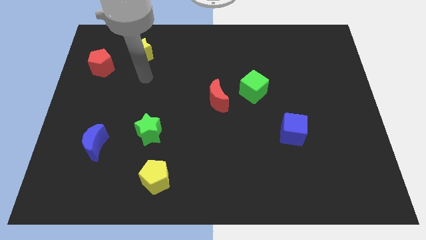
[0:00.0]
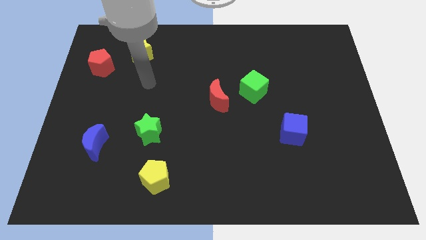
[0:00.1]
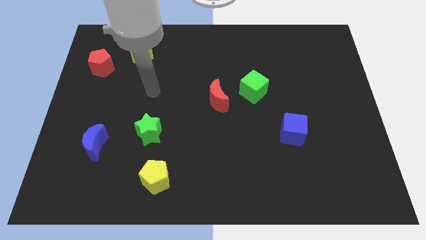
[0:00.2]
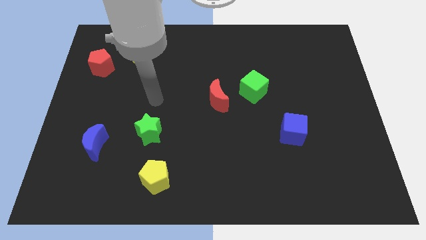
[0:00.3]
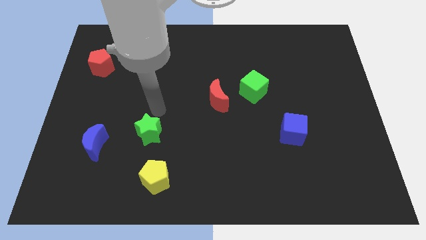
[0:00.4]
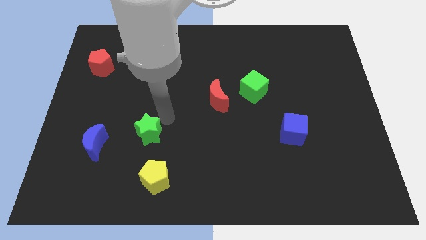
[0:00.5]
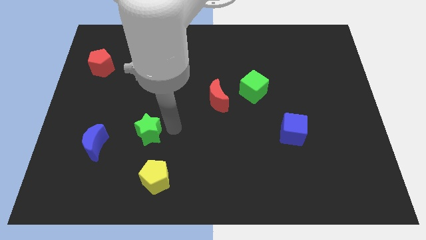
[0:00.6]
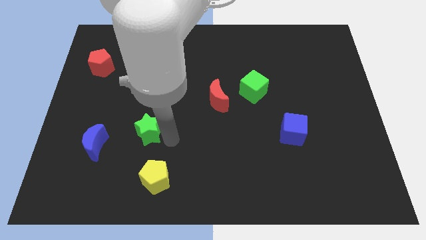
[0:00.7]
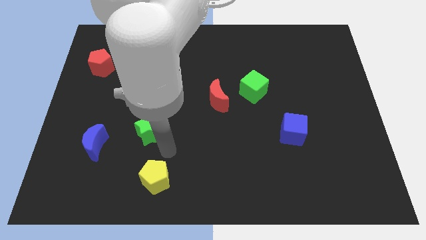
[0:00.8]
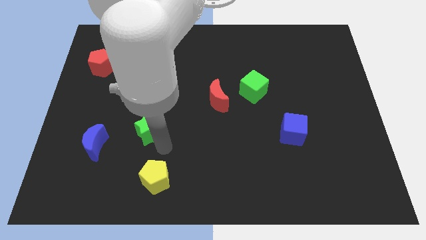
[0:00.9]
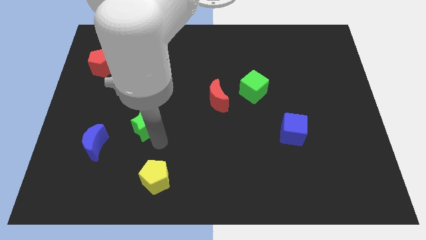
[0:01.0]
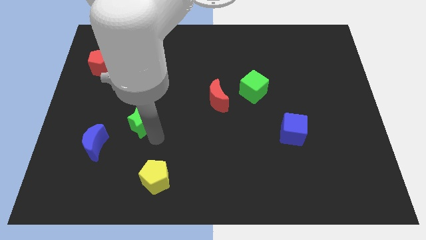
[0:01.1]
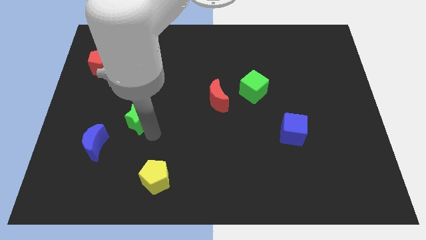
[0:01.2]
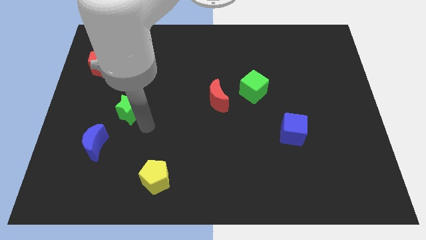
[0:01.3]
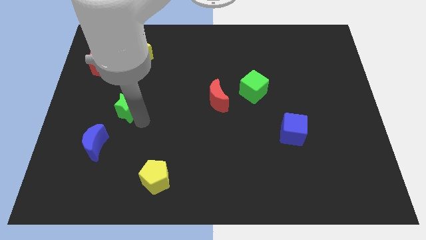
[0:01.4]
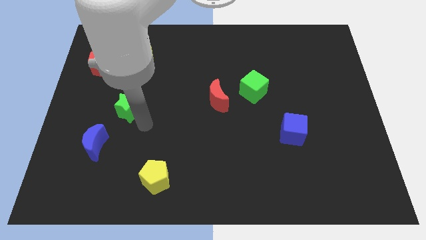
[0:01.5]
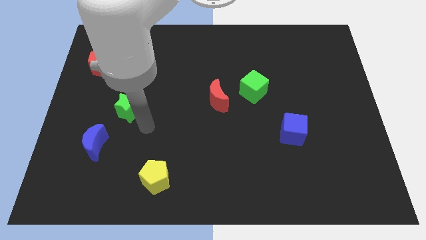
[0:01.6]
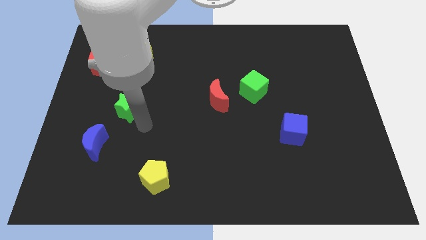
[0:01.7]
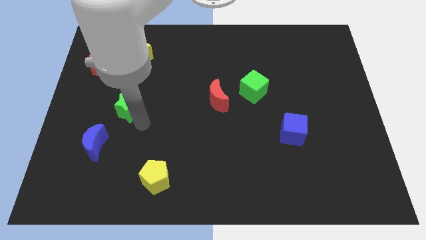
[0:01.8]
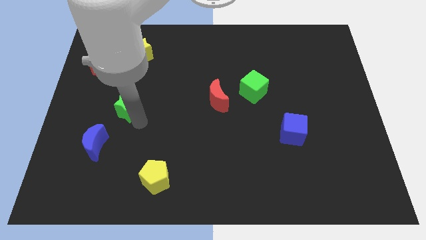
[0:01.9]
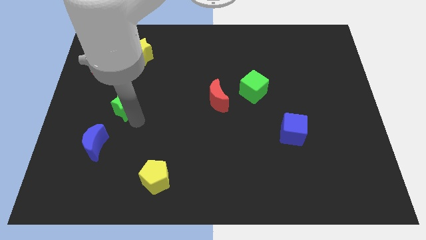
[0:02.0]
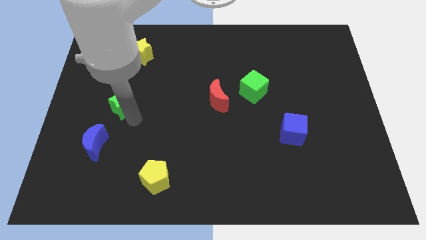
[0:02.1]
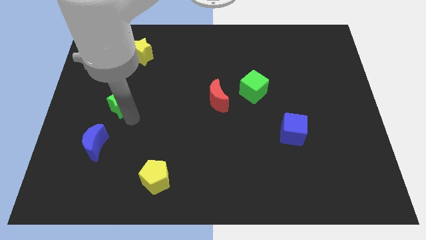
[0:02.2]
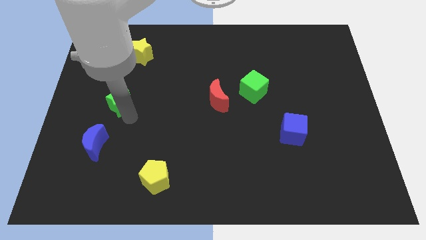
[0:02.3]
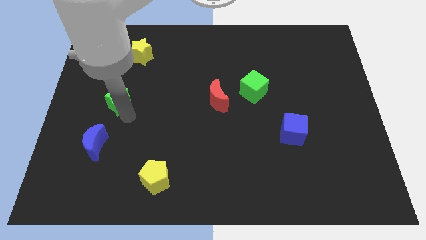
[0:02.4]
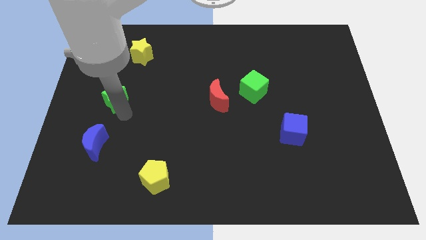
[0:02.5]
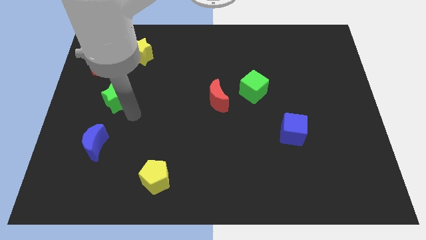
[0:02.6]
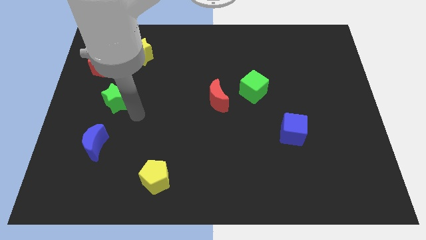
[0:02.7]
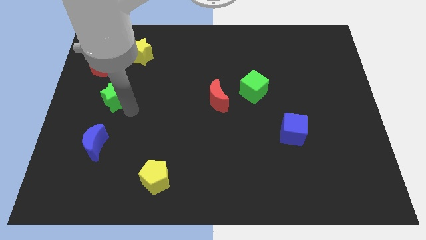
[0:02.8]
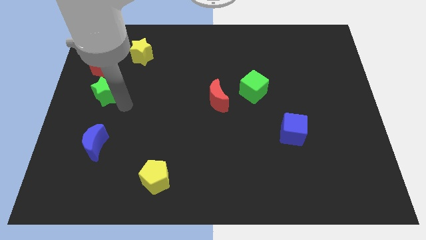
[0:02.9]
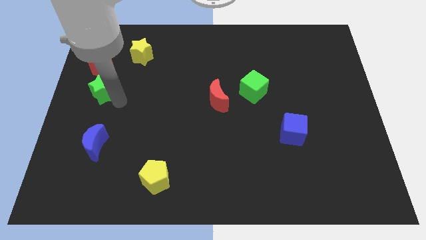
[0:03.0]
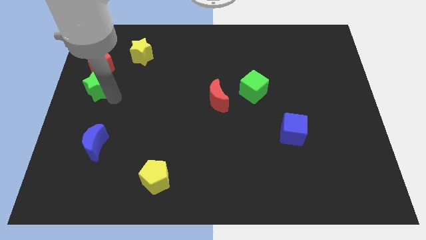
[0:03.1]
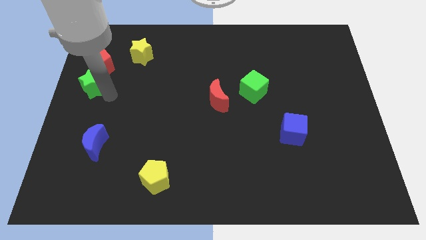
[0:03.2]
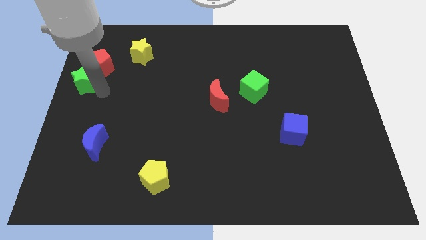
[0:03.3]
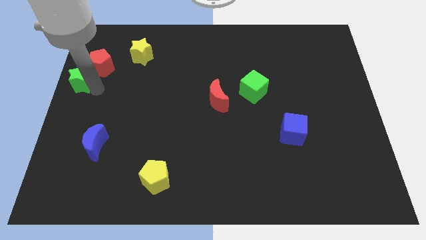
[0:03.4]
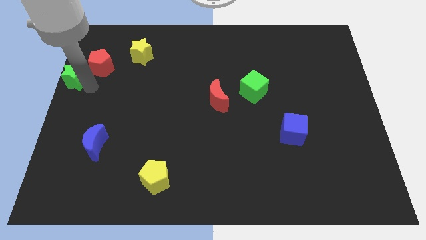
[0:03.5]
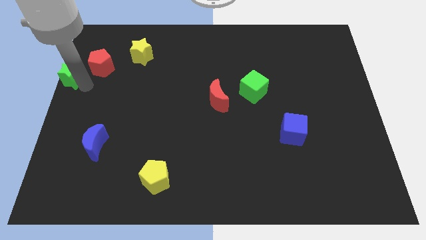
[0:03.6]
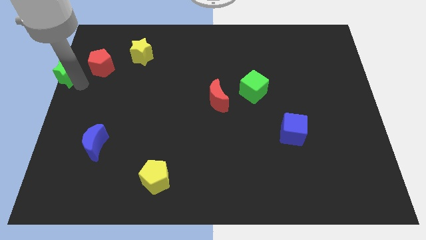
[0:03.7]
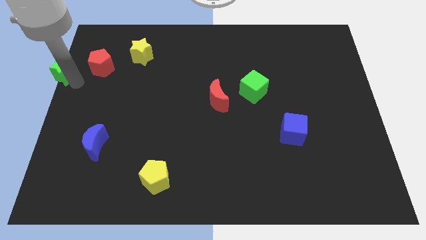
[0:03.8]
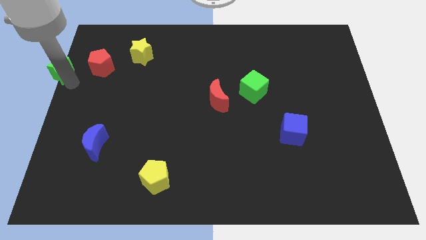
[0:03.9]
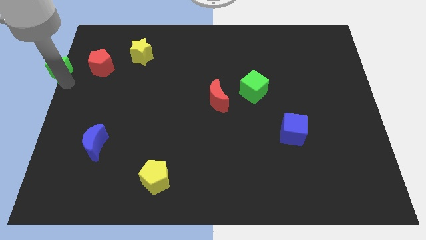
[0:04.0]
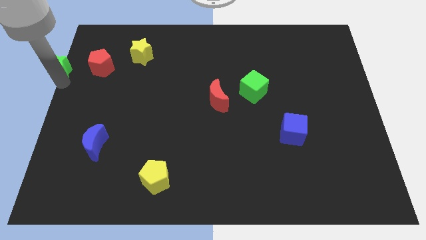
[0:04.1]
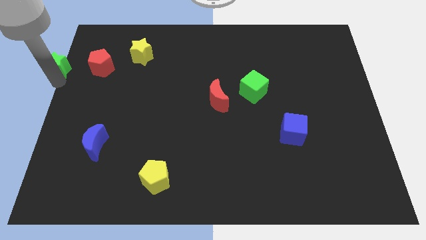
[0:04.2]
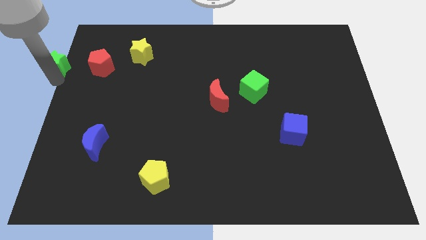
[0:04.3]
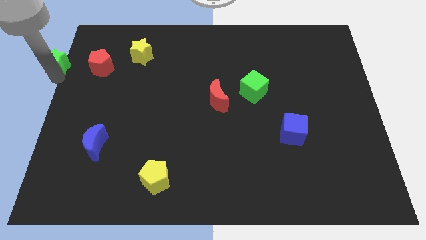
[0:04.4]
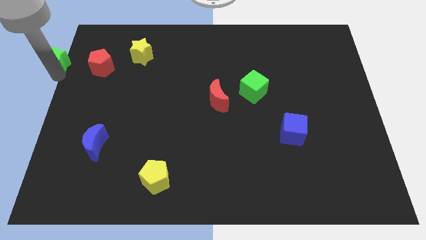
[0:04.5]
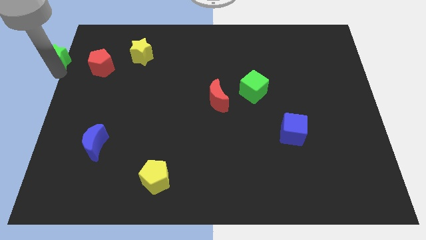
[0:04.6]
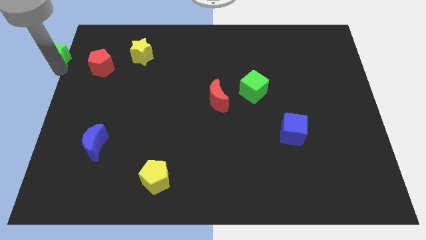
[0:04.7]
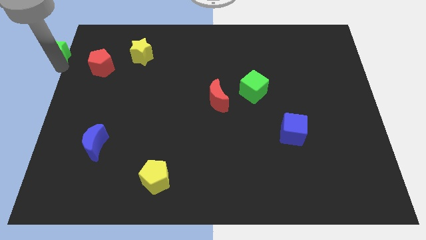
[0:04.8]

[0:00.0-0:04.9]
slide the green star to the upper left corner

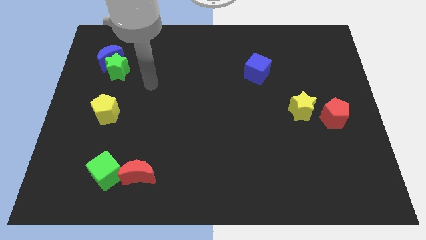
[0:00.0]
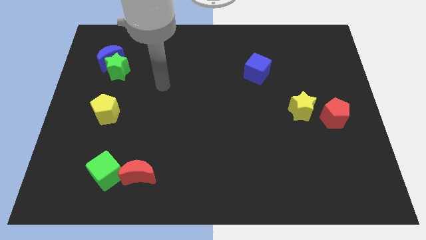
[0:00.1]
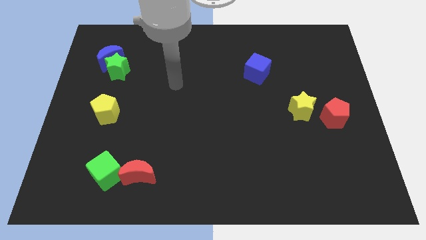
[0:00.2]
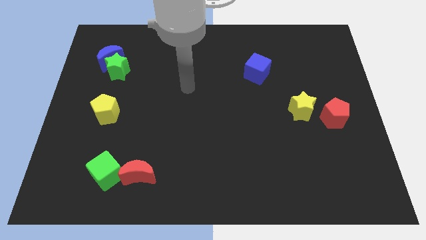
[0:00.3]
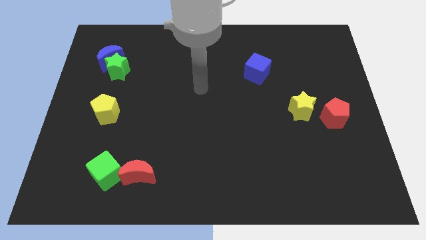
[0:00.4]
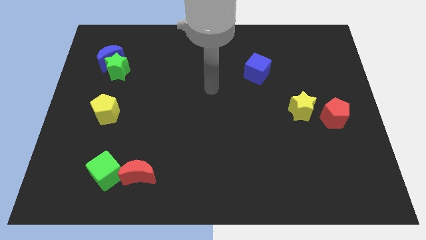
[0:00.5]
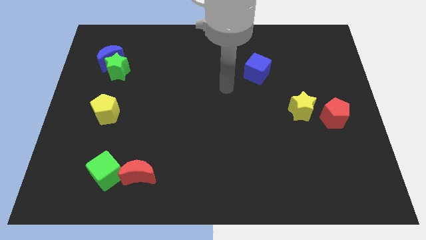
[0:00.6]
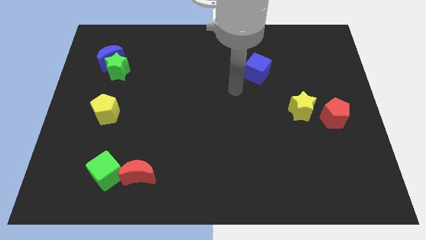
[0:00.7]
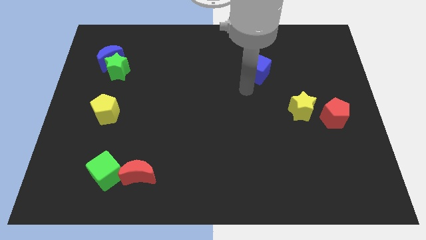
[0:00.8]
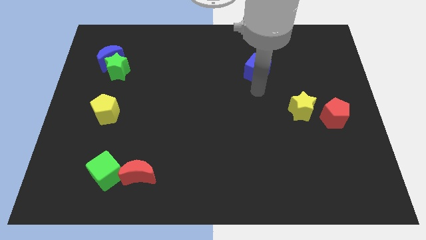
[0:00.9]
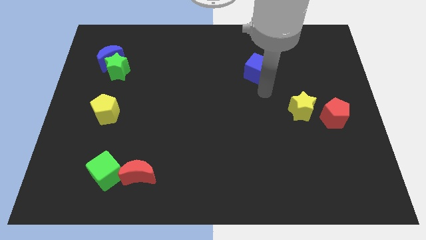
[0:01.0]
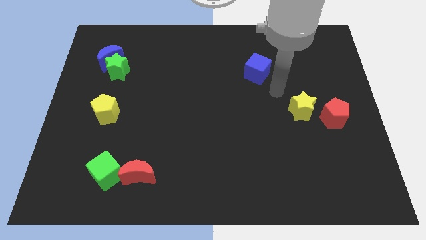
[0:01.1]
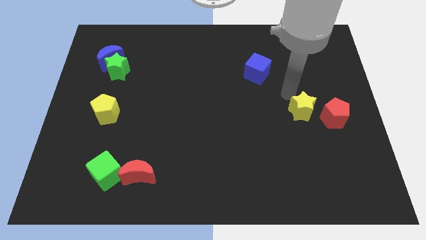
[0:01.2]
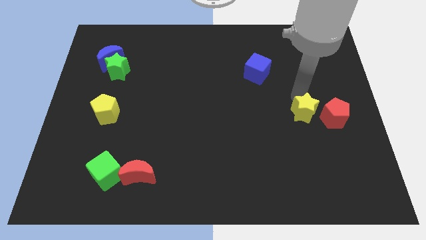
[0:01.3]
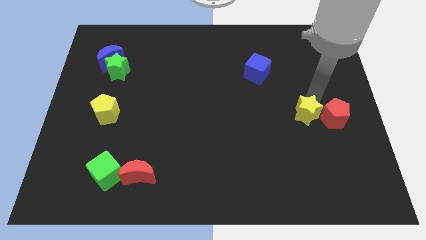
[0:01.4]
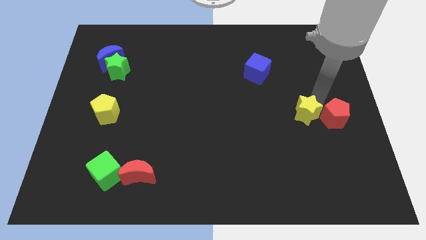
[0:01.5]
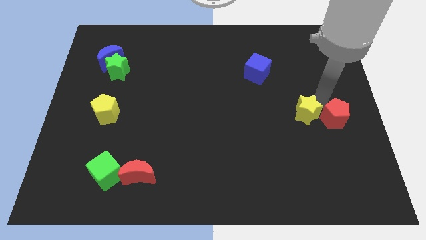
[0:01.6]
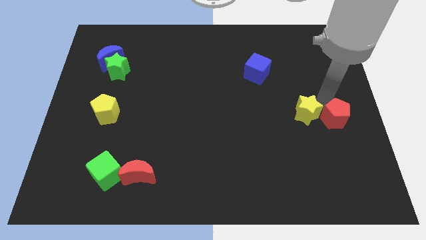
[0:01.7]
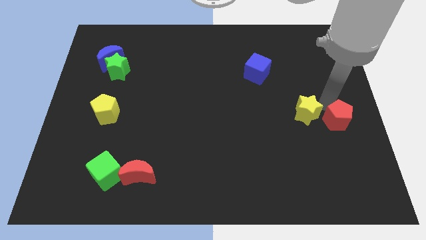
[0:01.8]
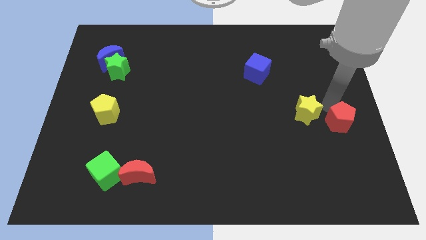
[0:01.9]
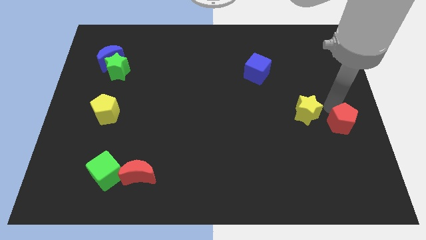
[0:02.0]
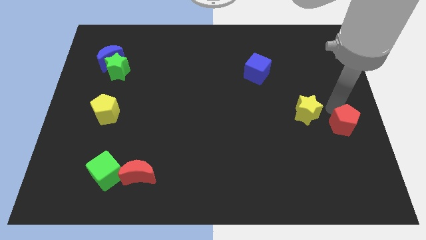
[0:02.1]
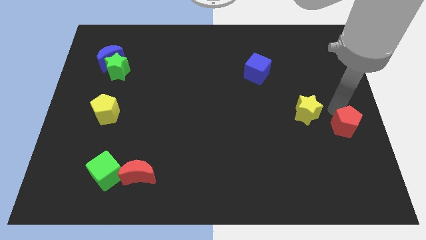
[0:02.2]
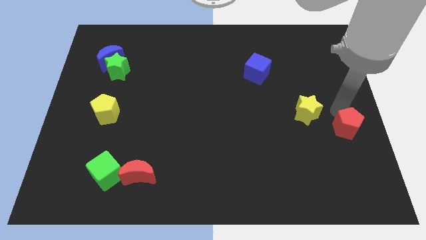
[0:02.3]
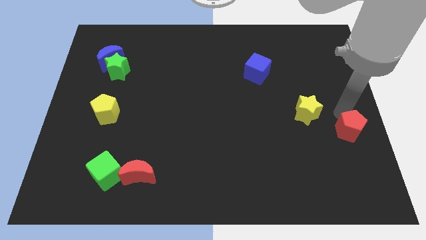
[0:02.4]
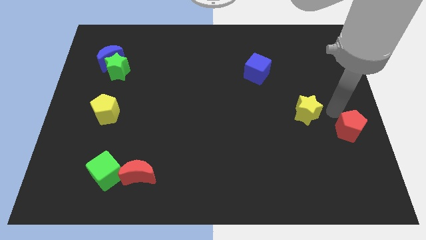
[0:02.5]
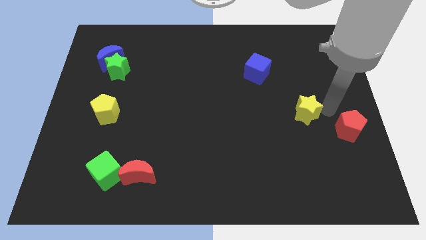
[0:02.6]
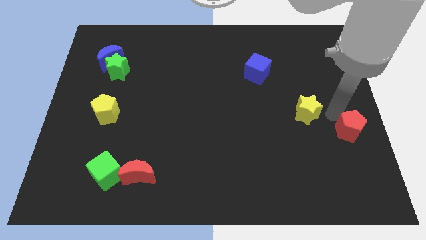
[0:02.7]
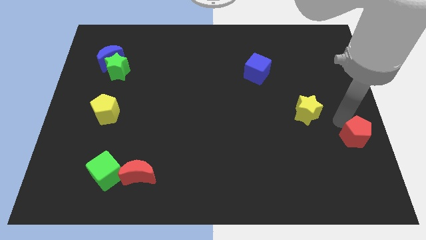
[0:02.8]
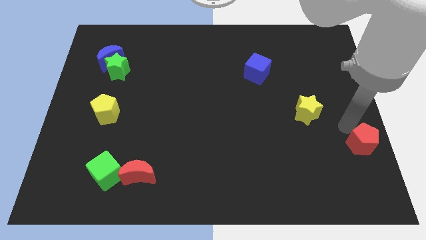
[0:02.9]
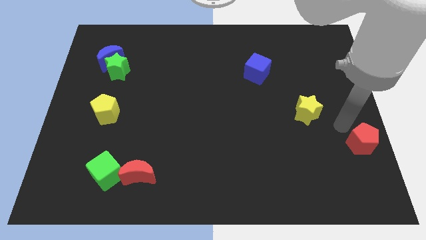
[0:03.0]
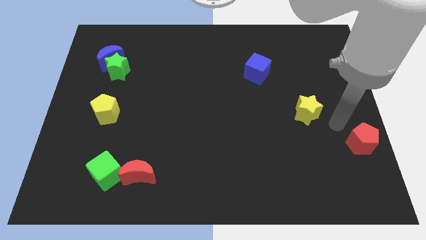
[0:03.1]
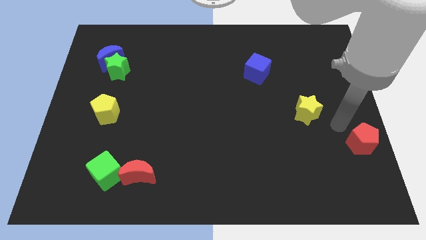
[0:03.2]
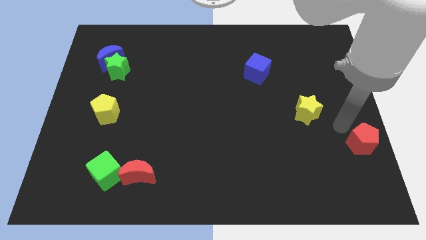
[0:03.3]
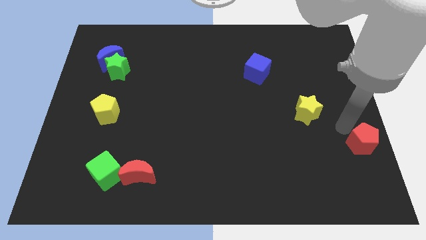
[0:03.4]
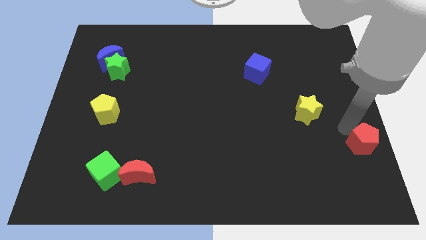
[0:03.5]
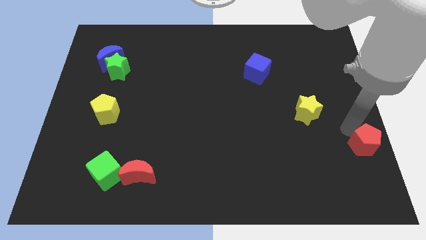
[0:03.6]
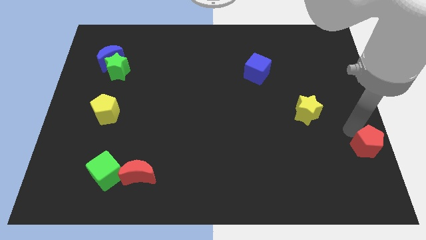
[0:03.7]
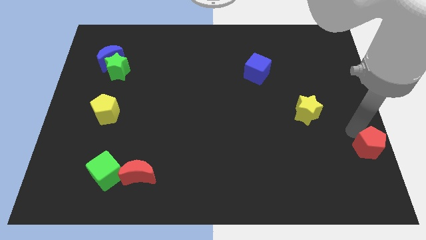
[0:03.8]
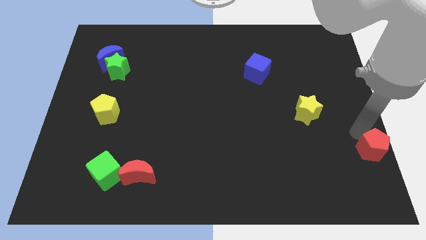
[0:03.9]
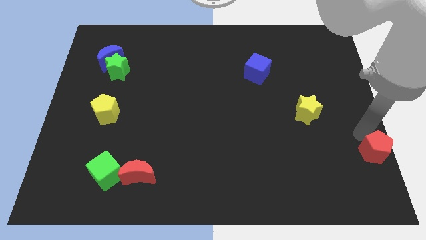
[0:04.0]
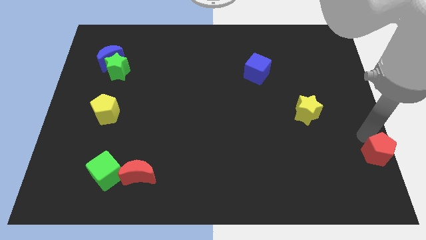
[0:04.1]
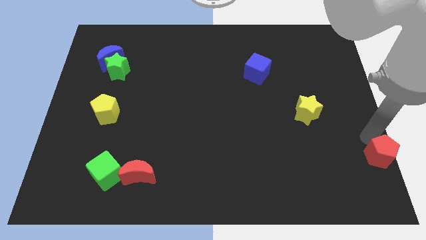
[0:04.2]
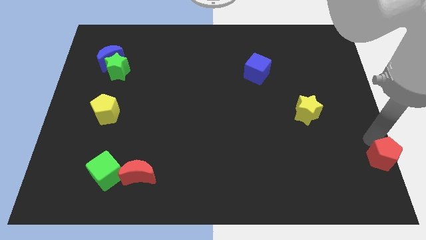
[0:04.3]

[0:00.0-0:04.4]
slide the red pentagon to the bottom right
